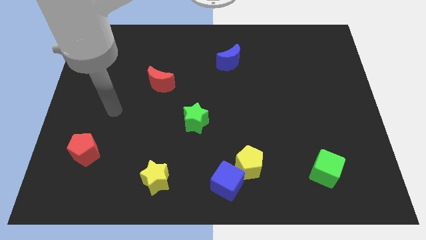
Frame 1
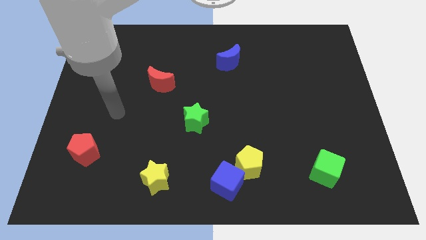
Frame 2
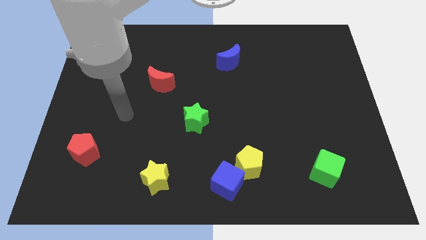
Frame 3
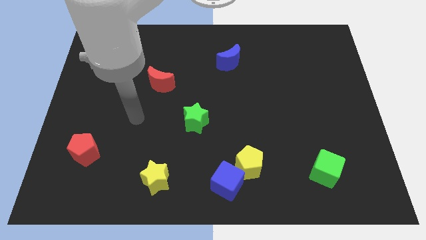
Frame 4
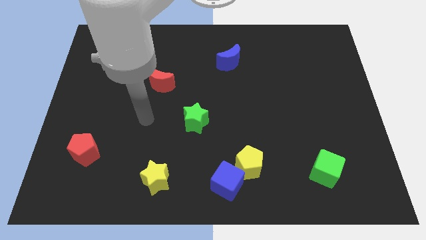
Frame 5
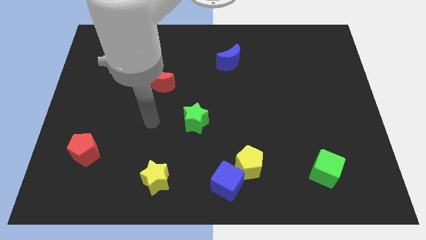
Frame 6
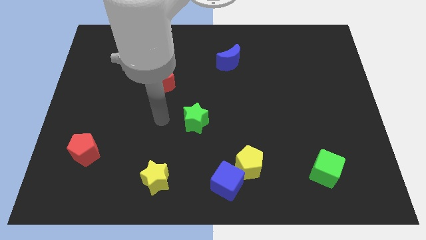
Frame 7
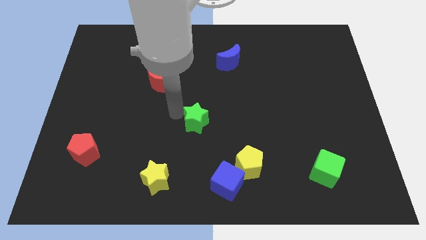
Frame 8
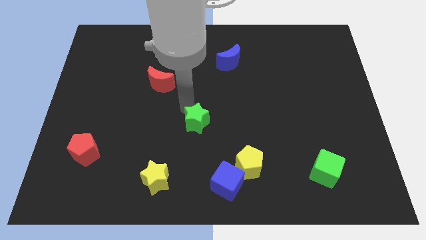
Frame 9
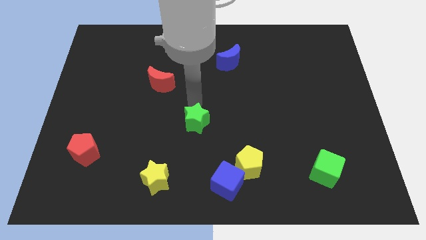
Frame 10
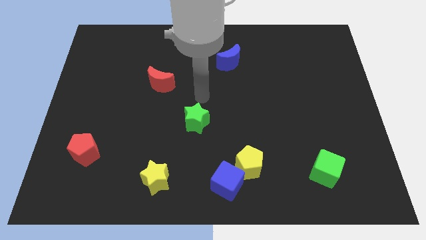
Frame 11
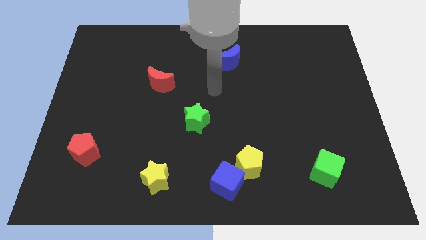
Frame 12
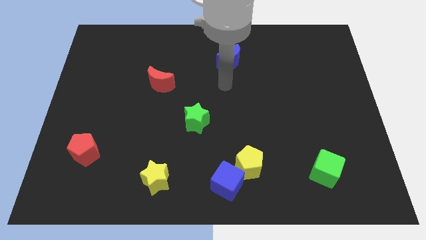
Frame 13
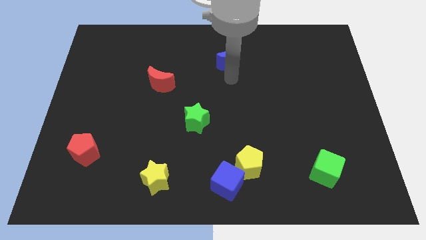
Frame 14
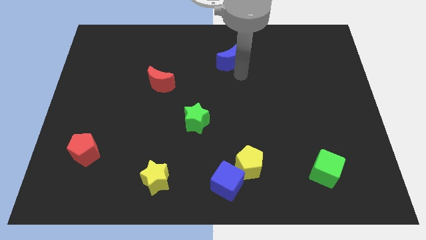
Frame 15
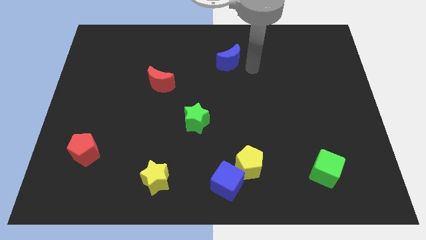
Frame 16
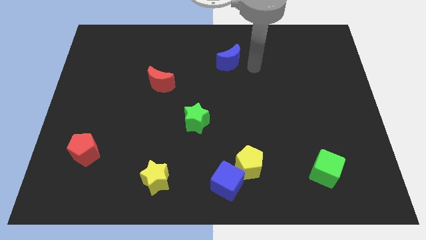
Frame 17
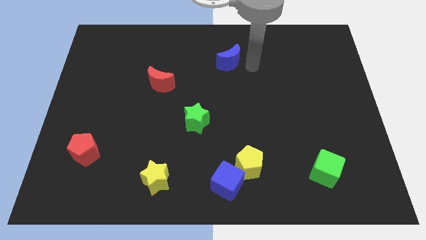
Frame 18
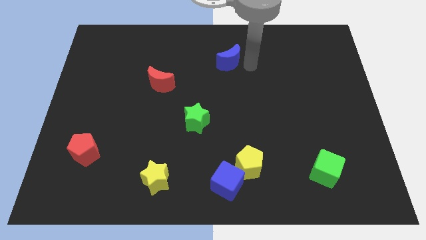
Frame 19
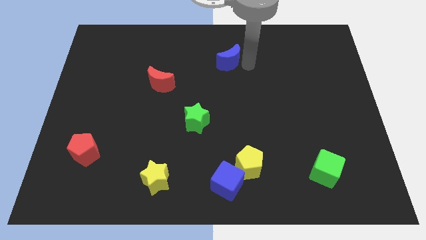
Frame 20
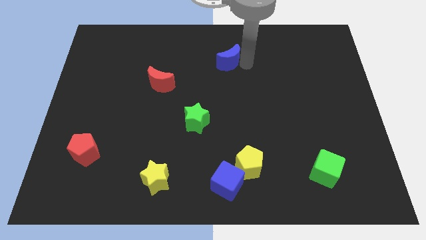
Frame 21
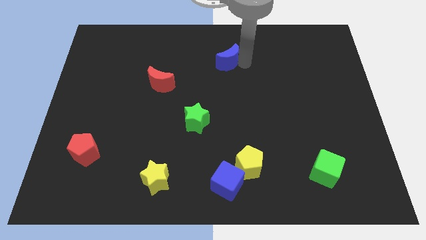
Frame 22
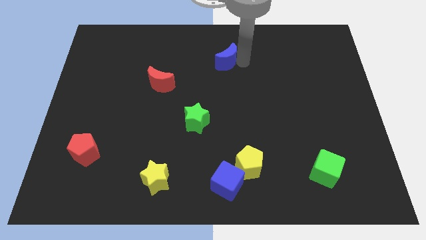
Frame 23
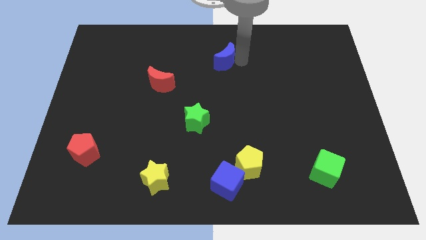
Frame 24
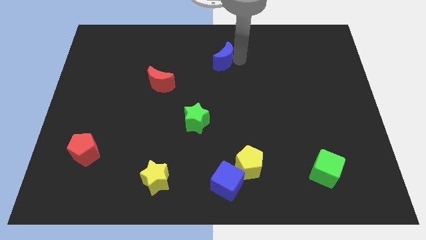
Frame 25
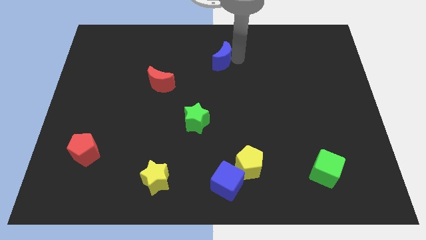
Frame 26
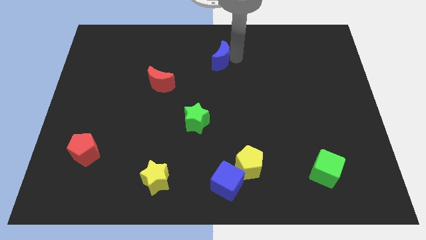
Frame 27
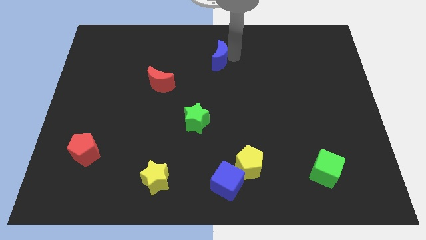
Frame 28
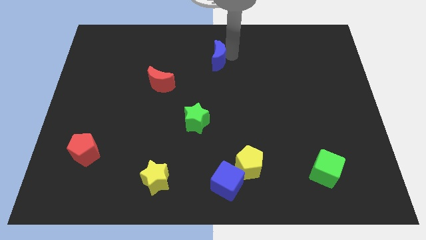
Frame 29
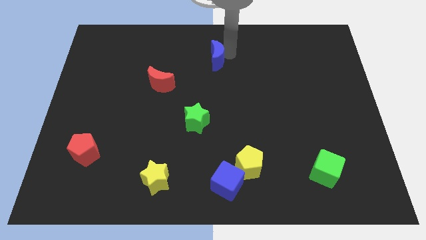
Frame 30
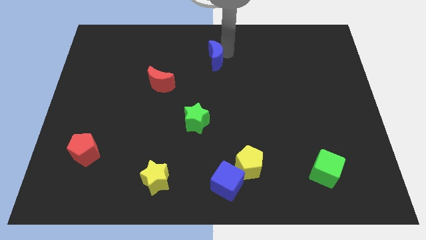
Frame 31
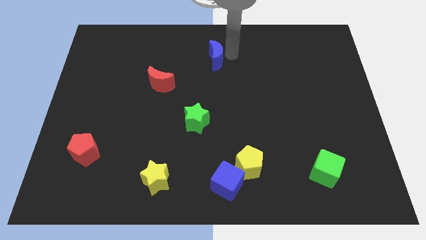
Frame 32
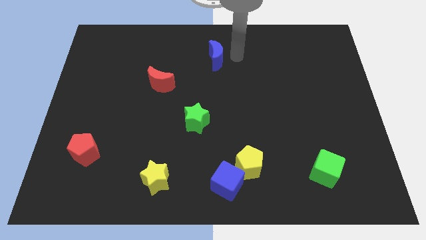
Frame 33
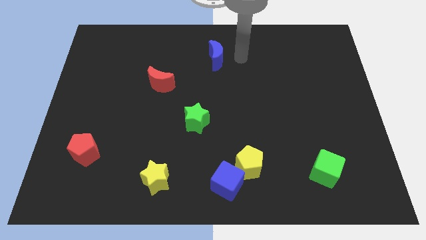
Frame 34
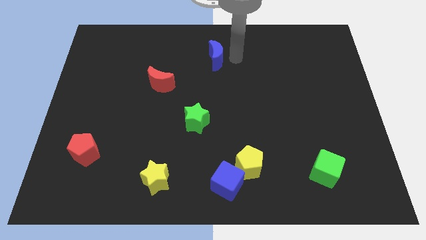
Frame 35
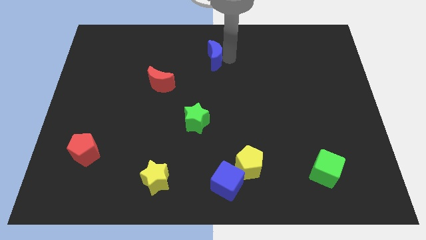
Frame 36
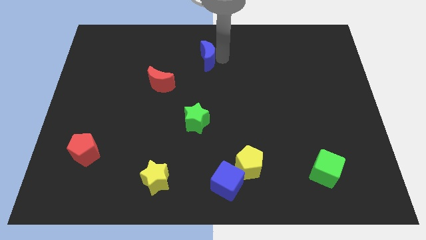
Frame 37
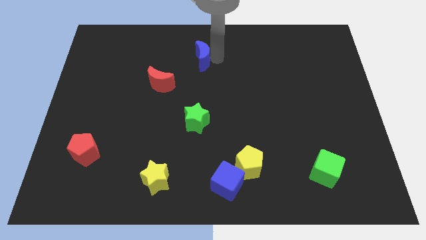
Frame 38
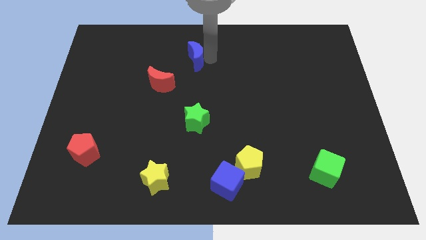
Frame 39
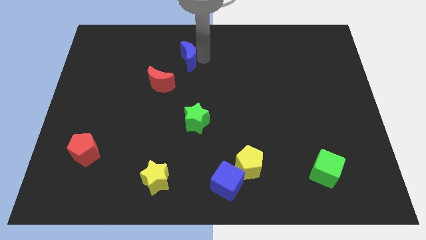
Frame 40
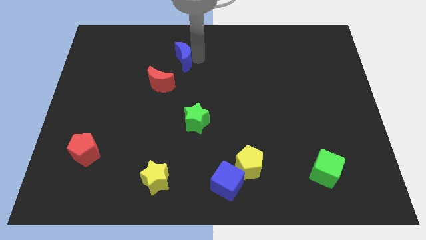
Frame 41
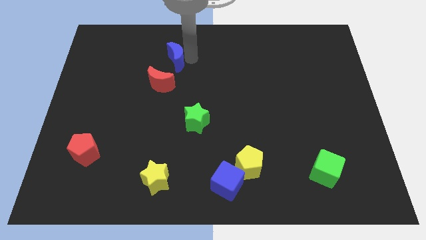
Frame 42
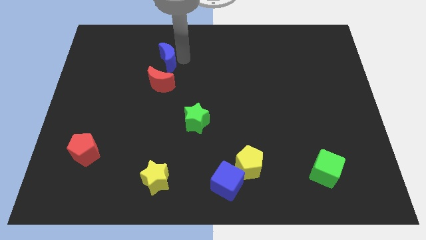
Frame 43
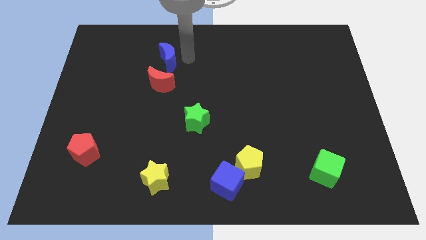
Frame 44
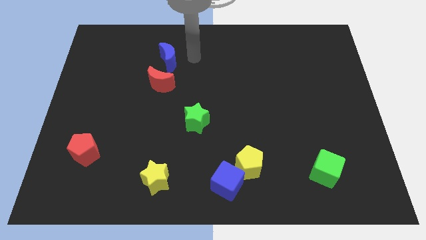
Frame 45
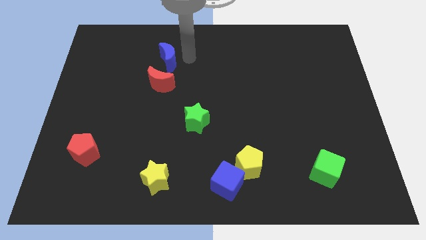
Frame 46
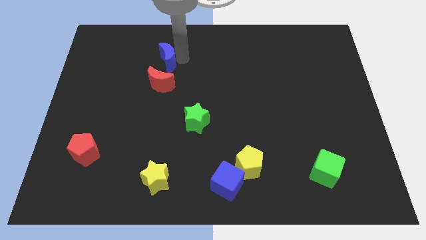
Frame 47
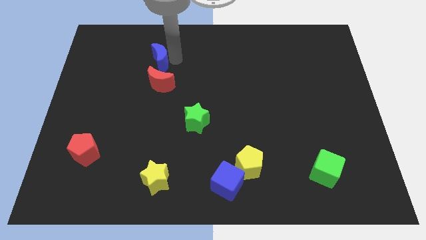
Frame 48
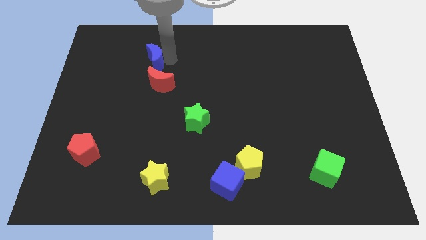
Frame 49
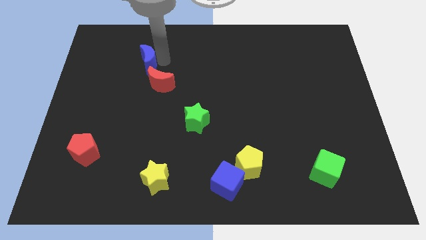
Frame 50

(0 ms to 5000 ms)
move the blue moon to the left

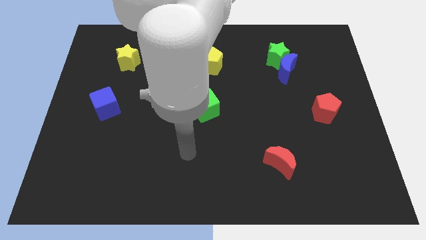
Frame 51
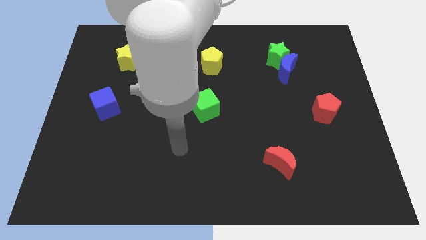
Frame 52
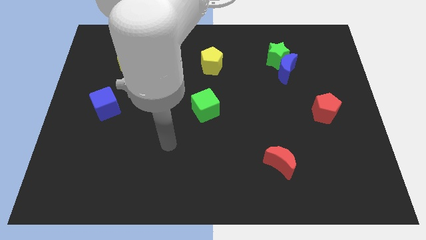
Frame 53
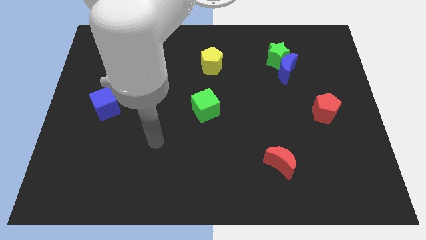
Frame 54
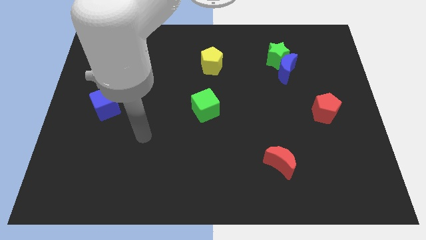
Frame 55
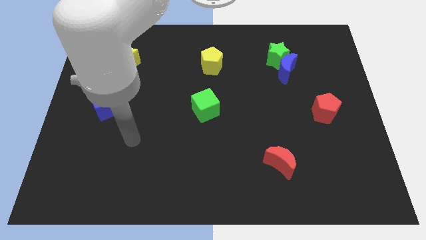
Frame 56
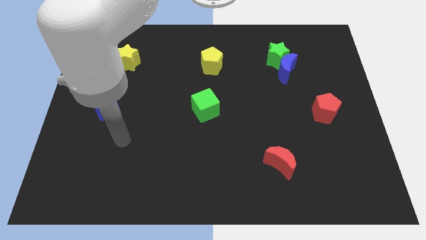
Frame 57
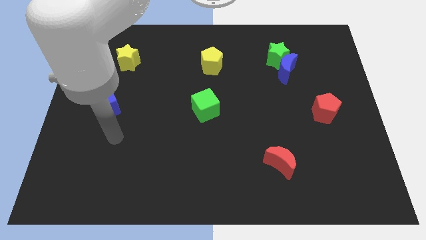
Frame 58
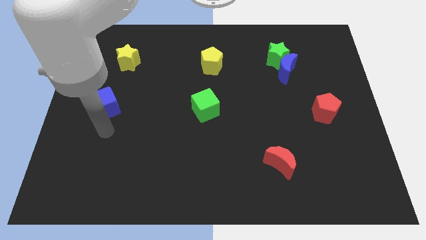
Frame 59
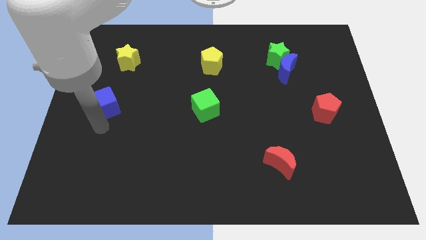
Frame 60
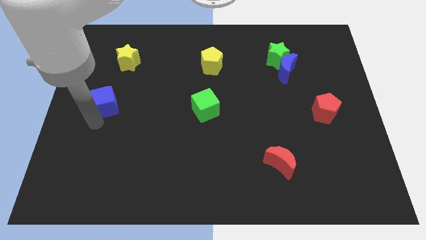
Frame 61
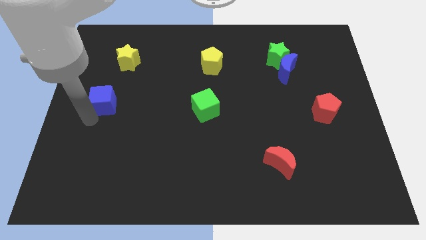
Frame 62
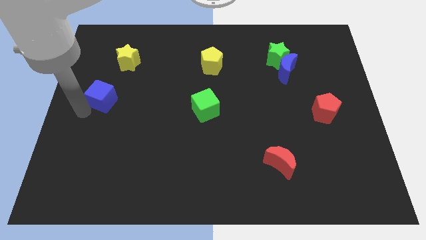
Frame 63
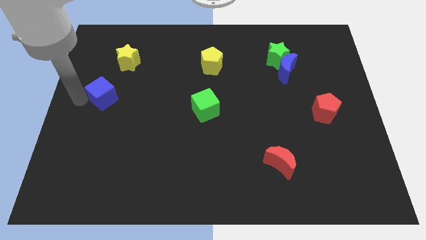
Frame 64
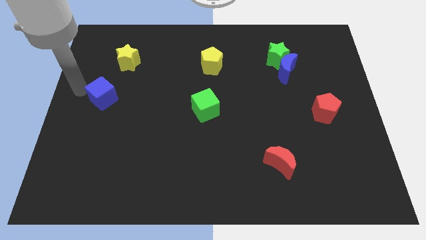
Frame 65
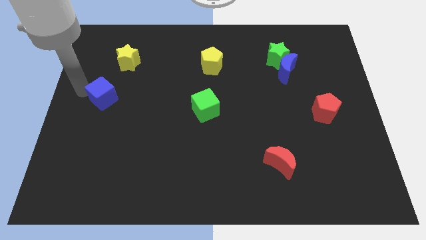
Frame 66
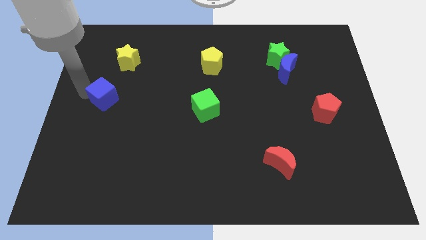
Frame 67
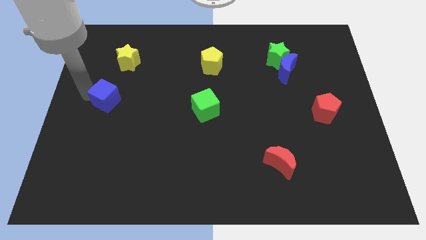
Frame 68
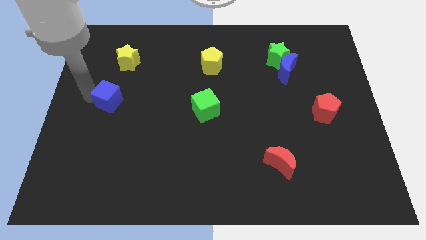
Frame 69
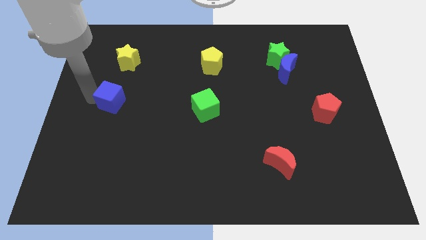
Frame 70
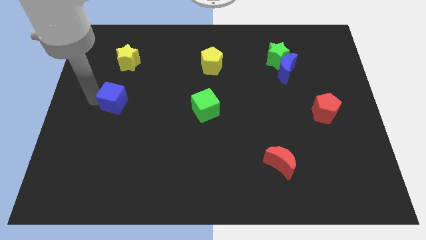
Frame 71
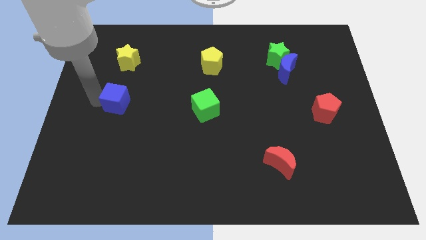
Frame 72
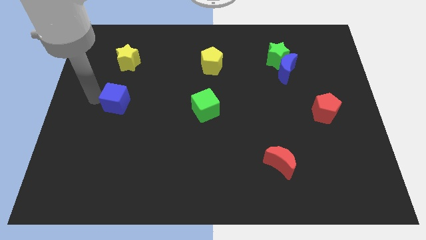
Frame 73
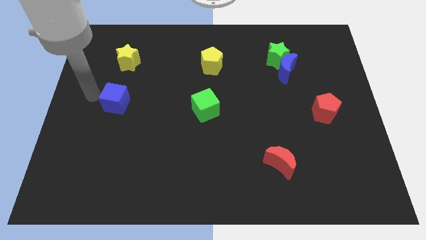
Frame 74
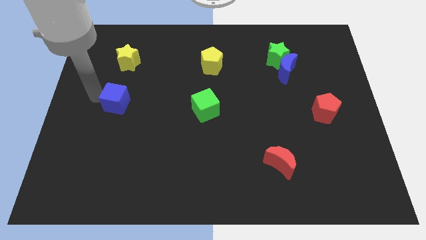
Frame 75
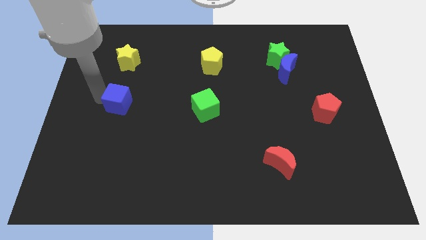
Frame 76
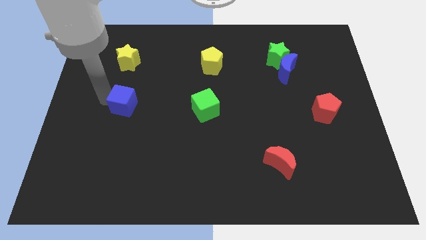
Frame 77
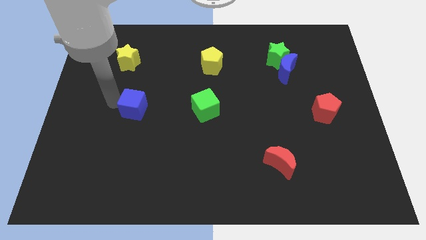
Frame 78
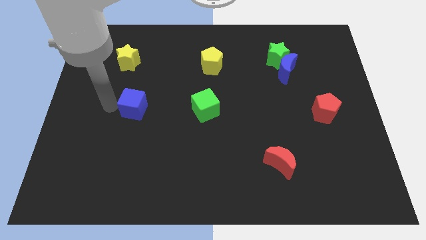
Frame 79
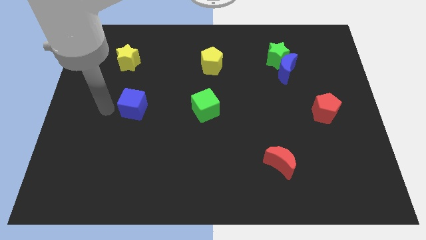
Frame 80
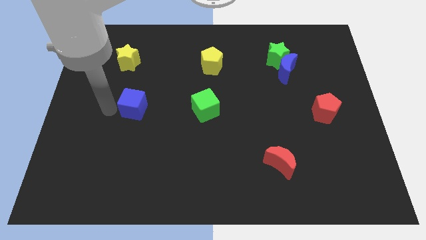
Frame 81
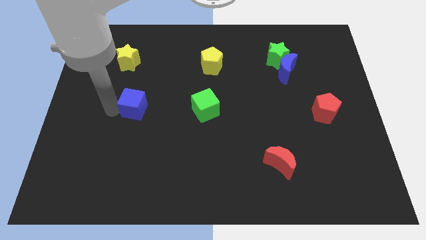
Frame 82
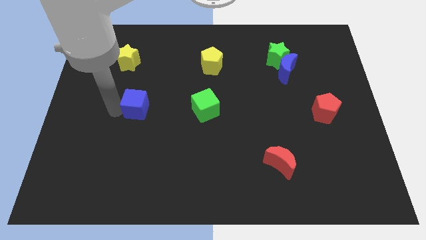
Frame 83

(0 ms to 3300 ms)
move the blue cube right somewhat

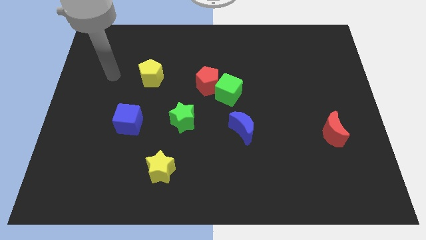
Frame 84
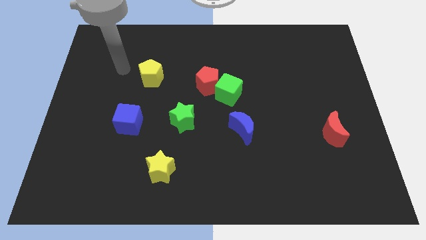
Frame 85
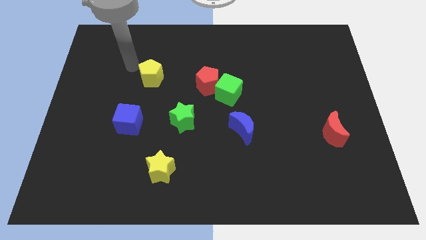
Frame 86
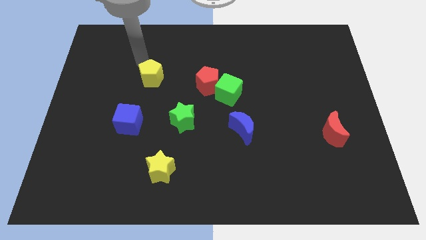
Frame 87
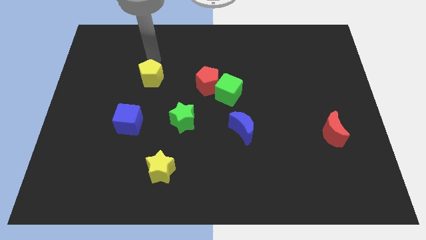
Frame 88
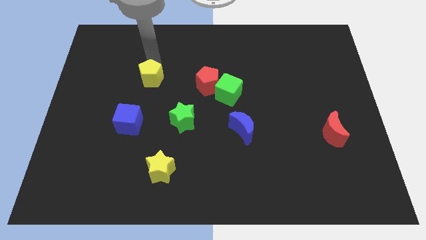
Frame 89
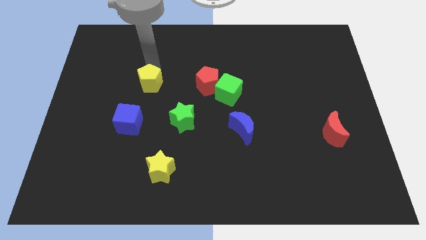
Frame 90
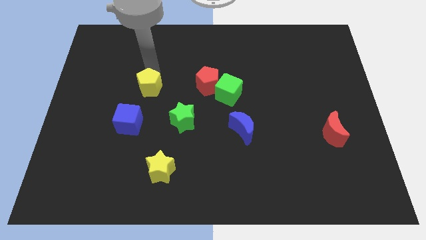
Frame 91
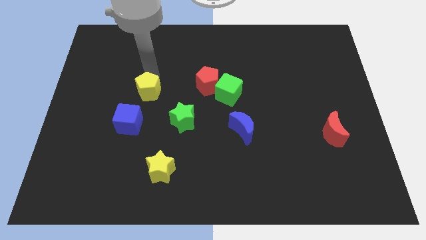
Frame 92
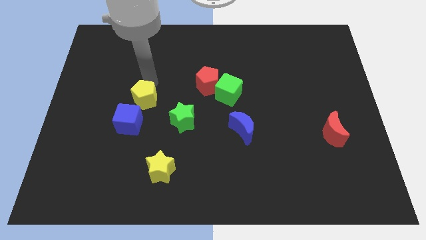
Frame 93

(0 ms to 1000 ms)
push the yellow pentagon downwards somewhat
